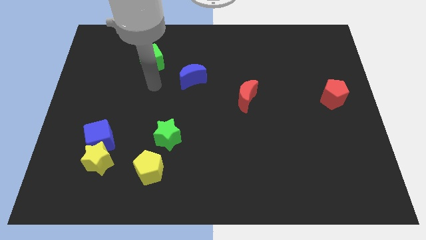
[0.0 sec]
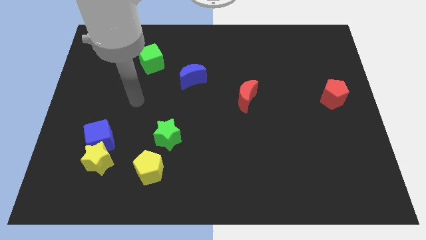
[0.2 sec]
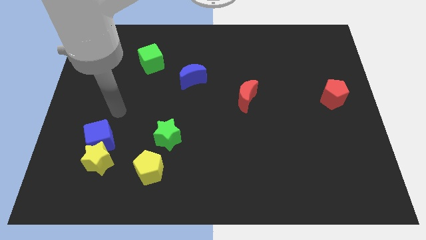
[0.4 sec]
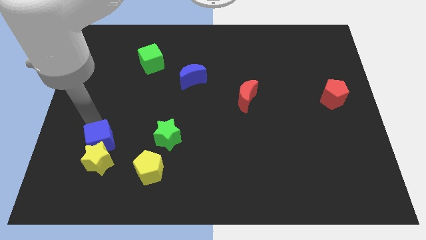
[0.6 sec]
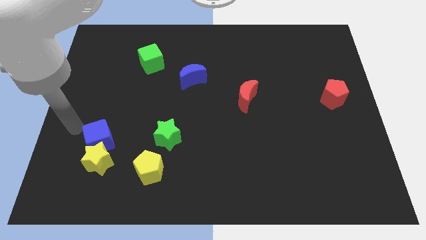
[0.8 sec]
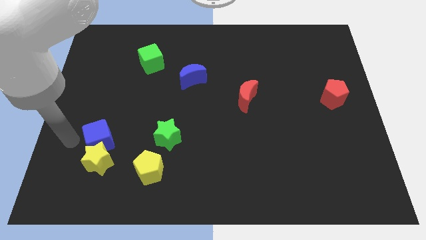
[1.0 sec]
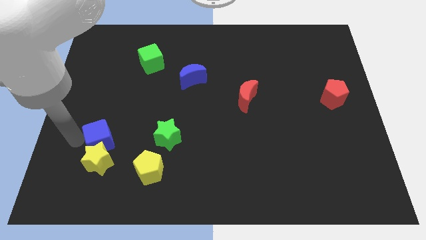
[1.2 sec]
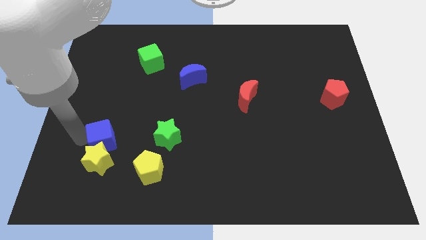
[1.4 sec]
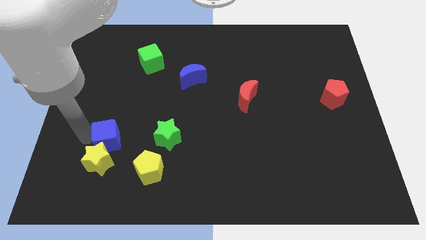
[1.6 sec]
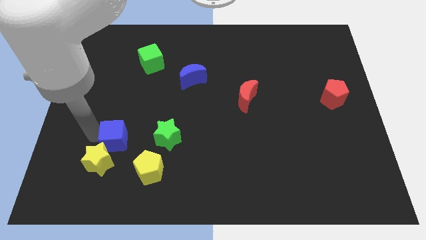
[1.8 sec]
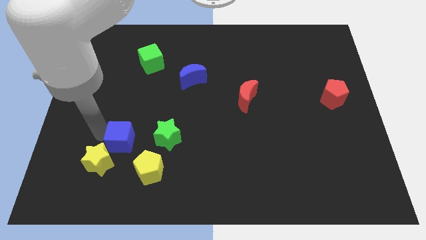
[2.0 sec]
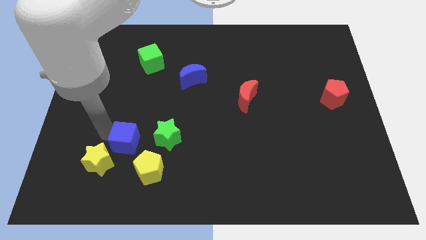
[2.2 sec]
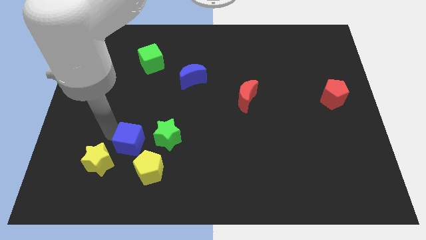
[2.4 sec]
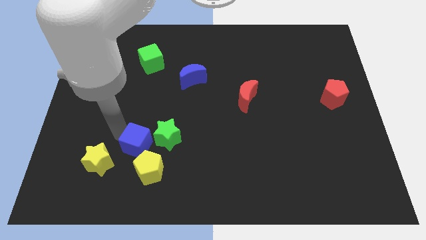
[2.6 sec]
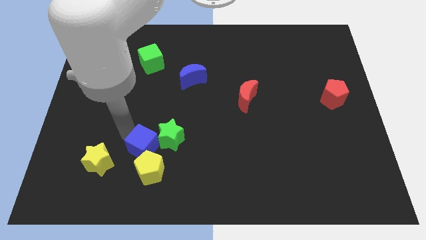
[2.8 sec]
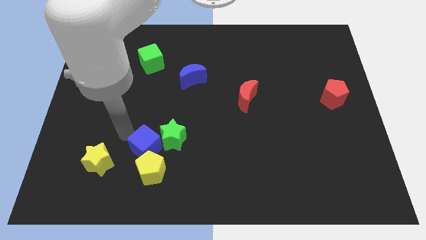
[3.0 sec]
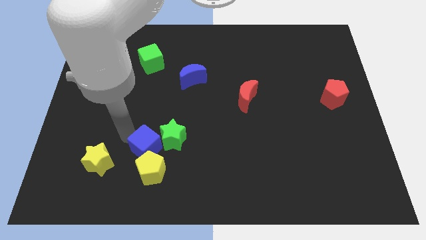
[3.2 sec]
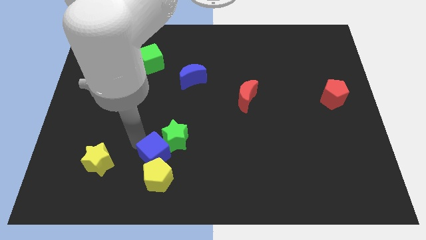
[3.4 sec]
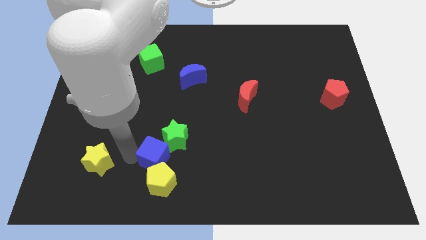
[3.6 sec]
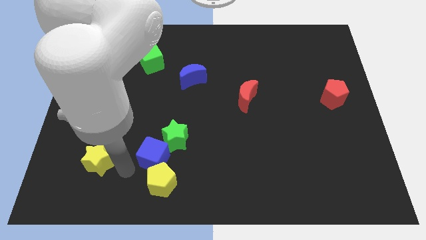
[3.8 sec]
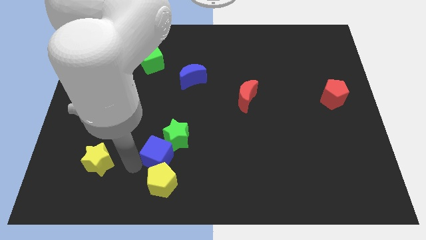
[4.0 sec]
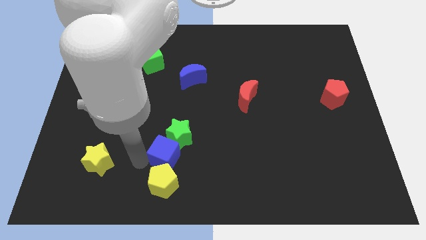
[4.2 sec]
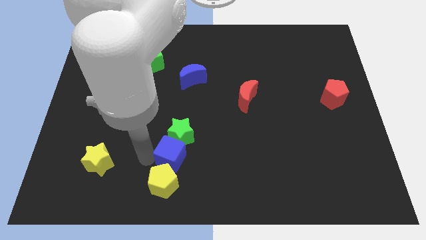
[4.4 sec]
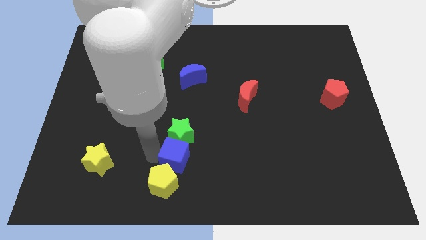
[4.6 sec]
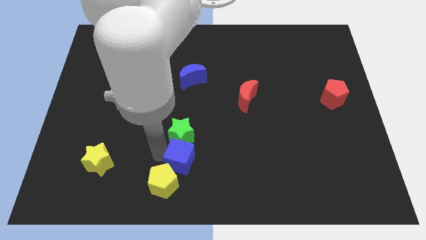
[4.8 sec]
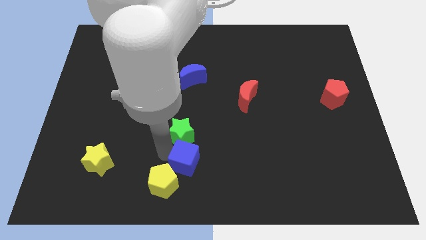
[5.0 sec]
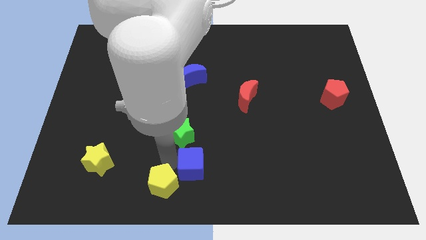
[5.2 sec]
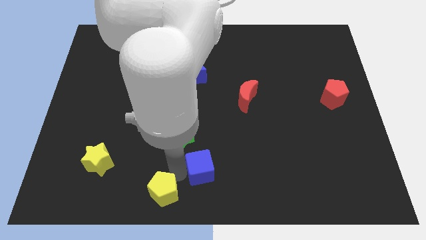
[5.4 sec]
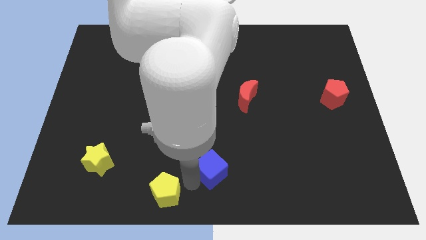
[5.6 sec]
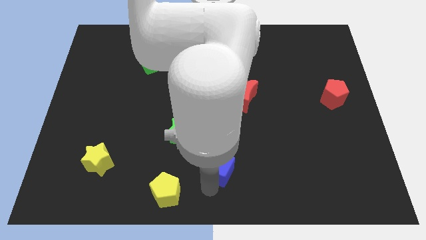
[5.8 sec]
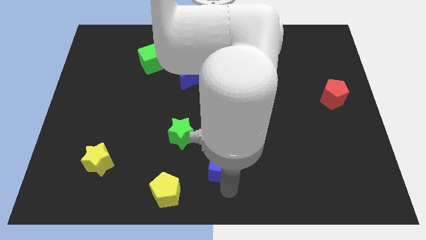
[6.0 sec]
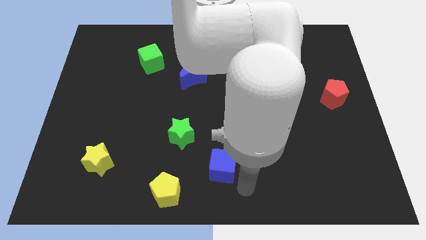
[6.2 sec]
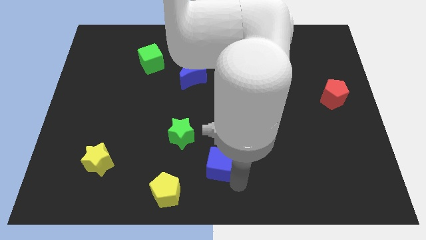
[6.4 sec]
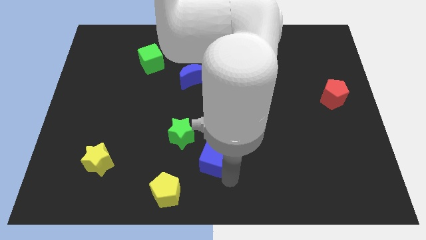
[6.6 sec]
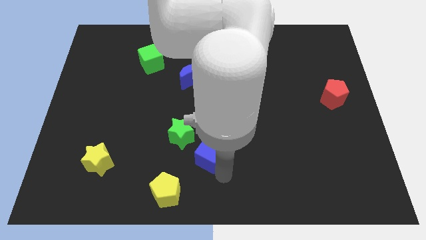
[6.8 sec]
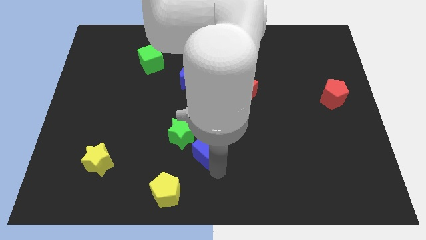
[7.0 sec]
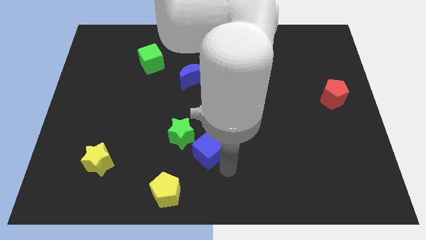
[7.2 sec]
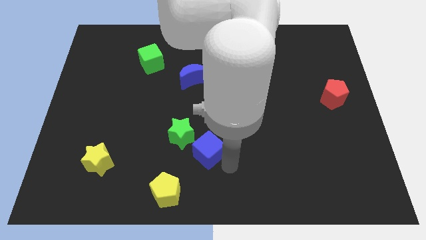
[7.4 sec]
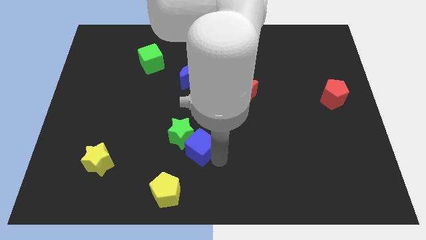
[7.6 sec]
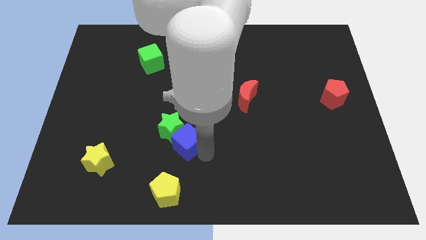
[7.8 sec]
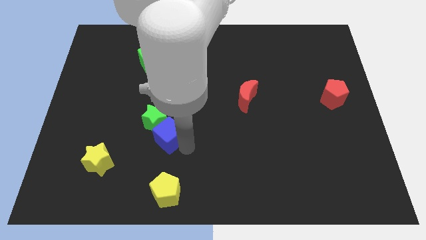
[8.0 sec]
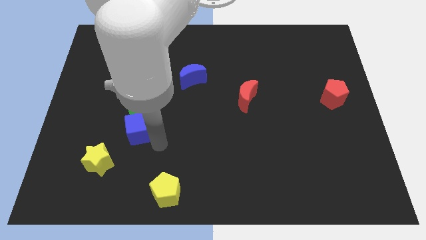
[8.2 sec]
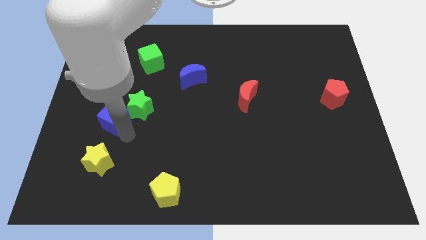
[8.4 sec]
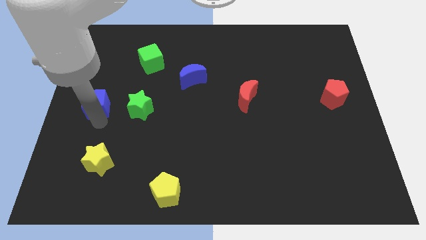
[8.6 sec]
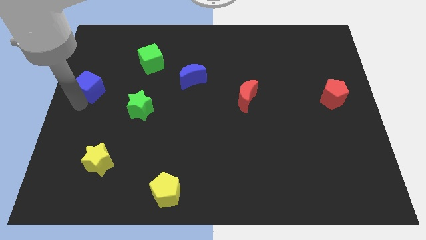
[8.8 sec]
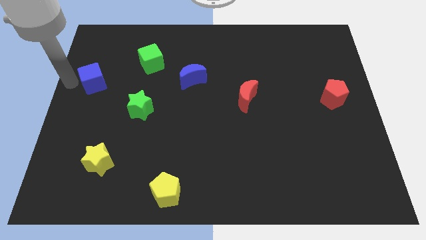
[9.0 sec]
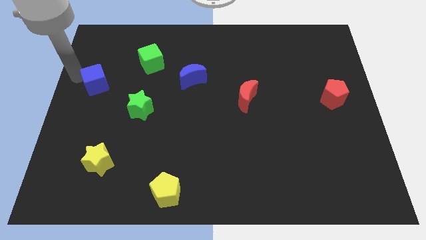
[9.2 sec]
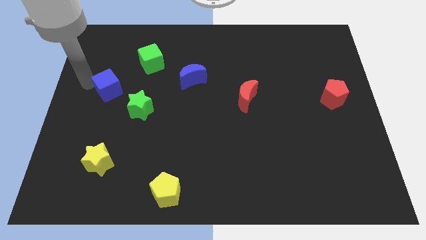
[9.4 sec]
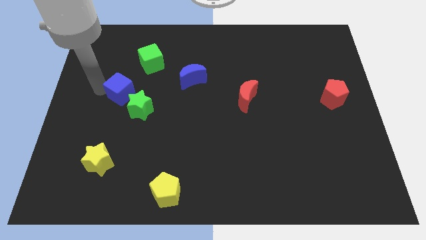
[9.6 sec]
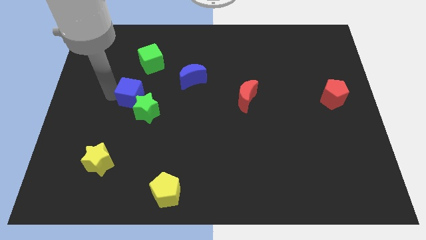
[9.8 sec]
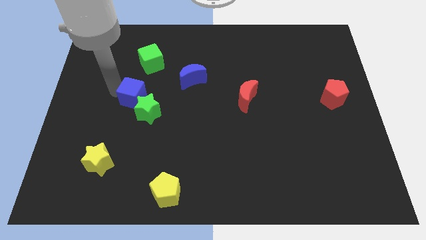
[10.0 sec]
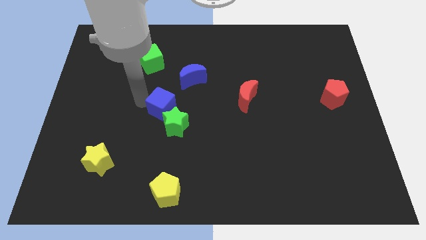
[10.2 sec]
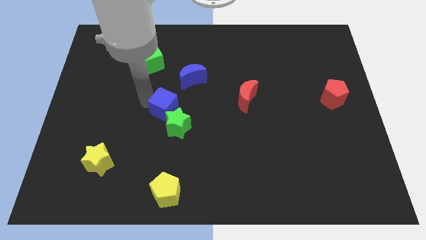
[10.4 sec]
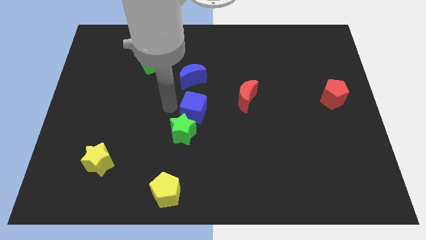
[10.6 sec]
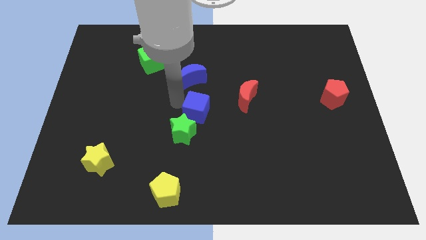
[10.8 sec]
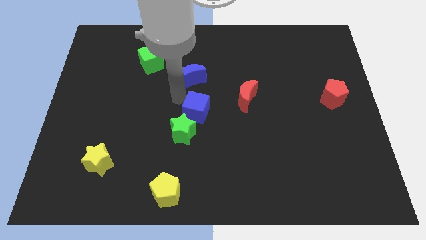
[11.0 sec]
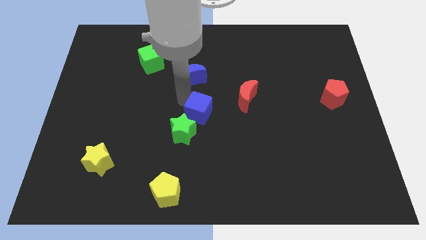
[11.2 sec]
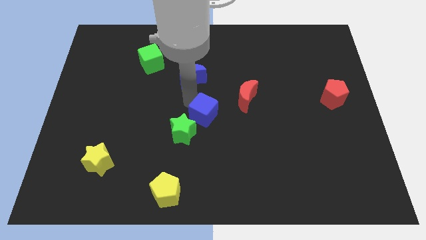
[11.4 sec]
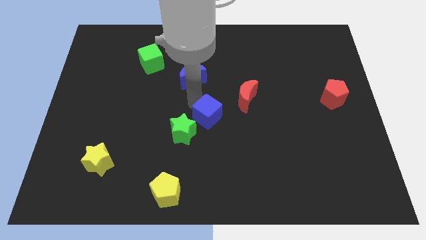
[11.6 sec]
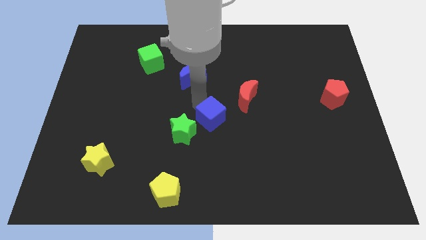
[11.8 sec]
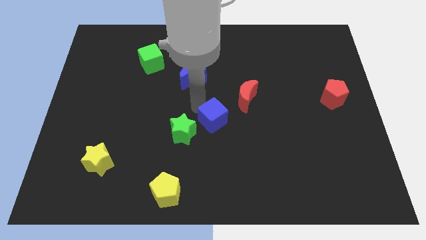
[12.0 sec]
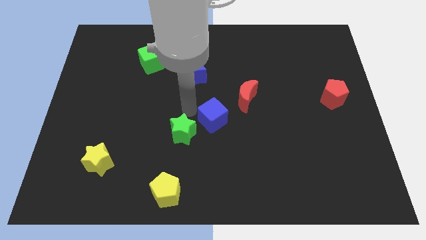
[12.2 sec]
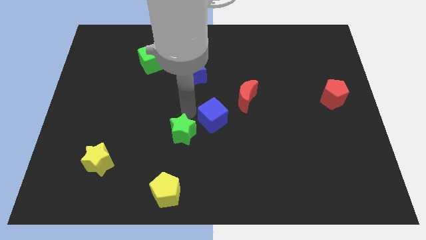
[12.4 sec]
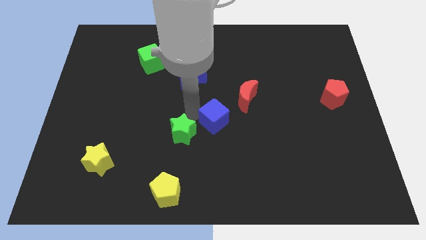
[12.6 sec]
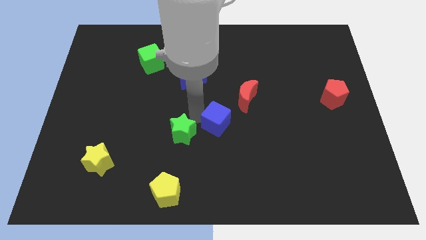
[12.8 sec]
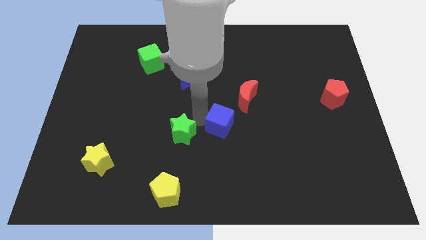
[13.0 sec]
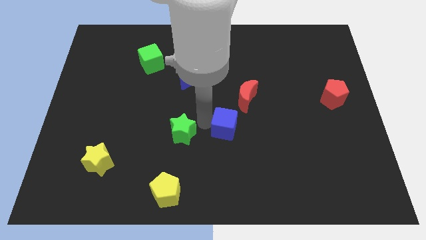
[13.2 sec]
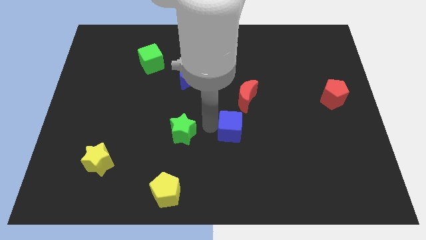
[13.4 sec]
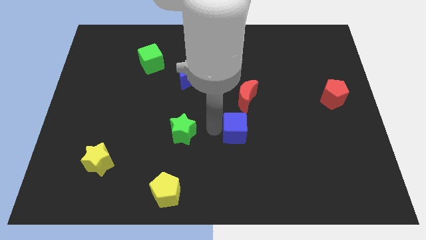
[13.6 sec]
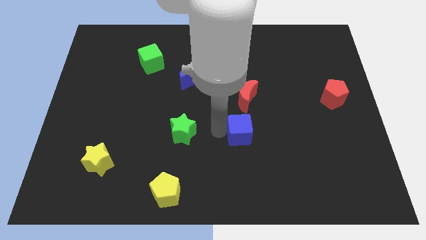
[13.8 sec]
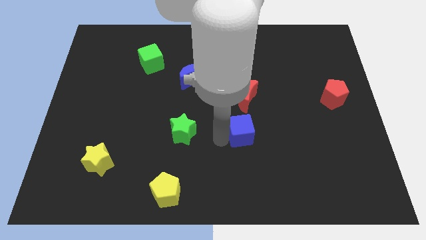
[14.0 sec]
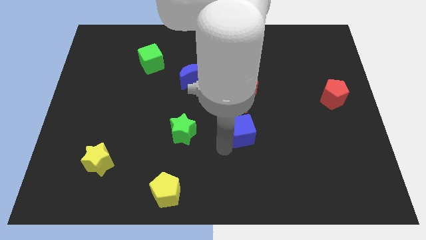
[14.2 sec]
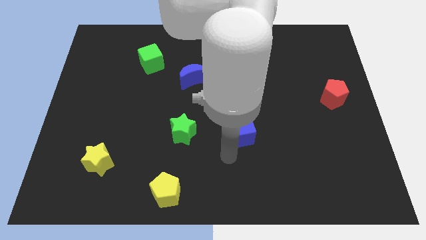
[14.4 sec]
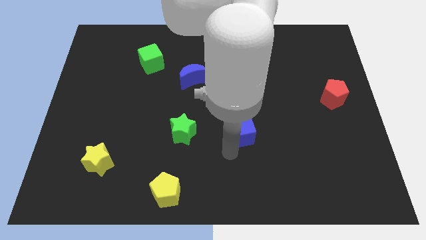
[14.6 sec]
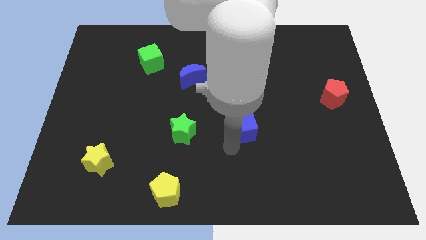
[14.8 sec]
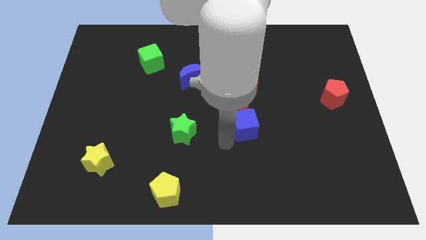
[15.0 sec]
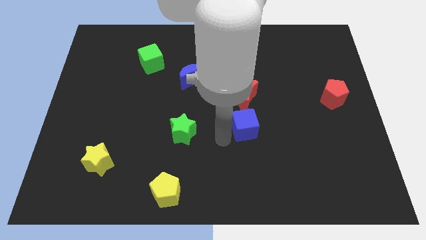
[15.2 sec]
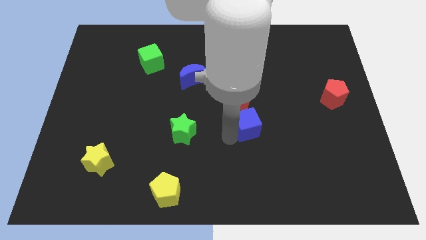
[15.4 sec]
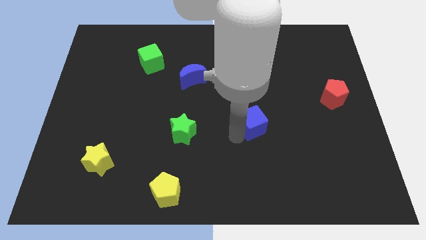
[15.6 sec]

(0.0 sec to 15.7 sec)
put the blue cube diagonally down and to the right of the red moon
